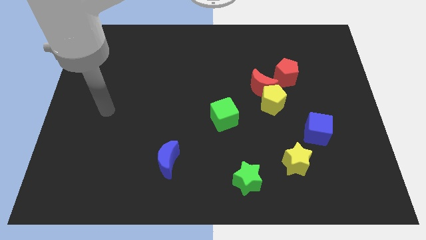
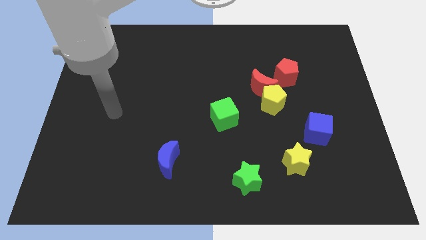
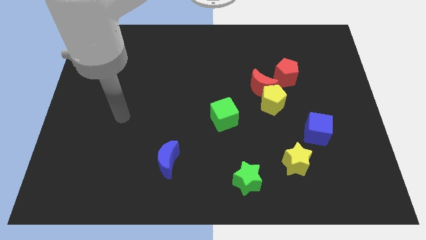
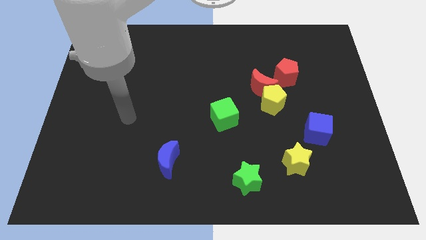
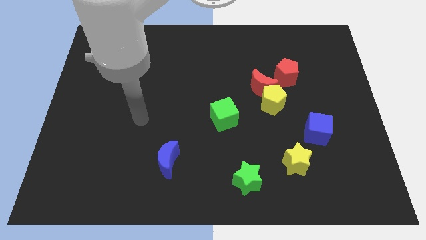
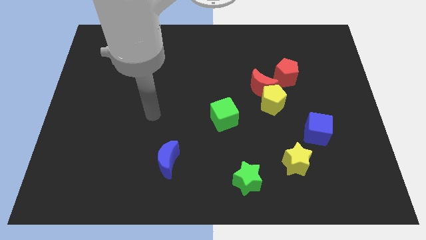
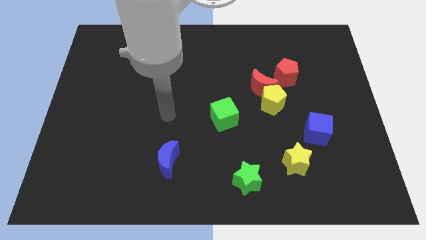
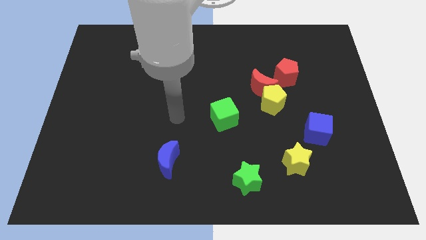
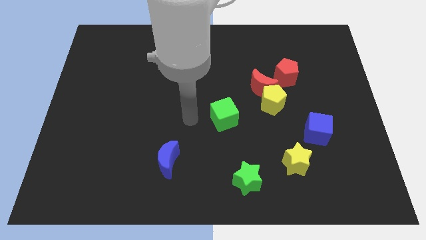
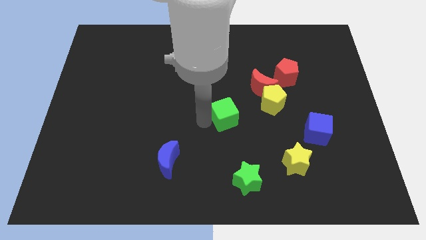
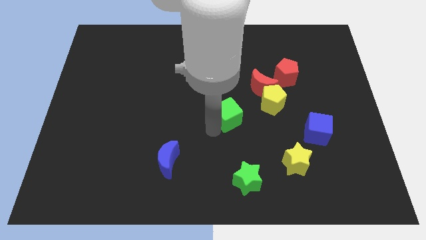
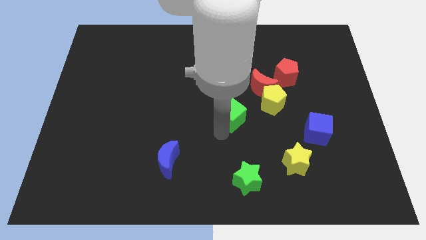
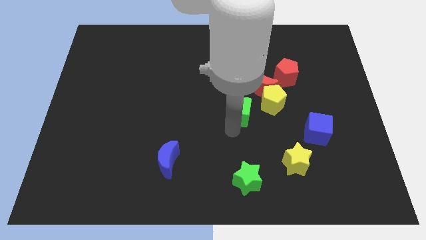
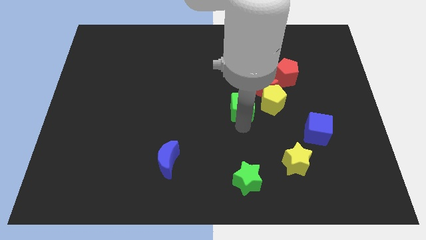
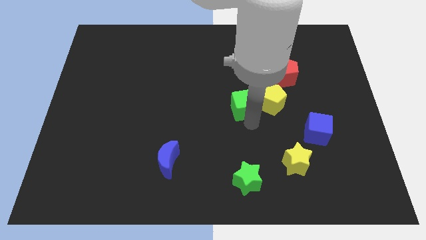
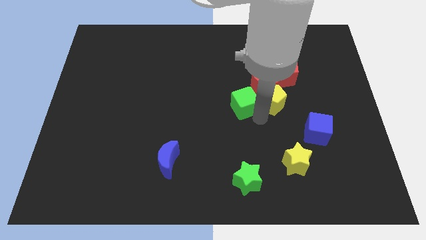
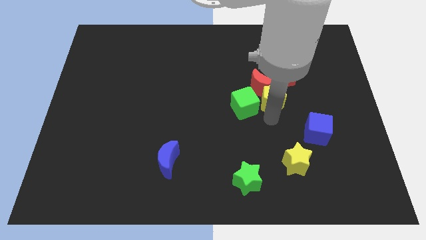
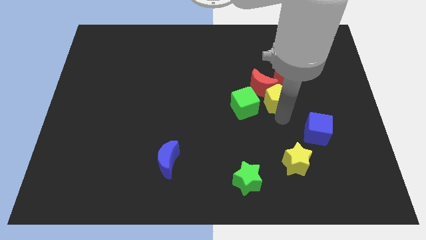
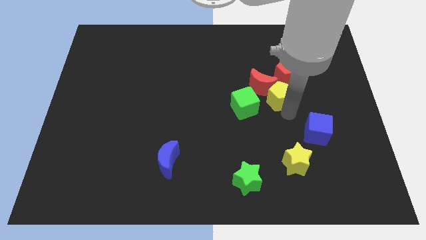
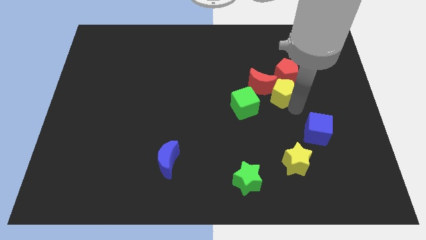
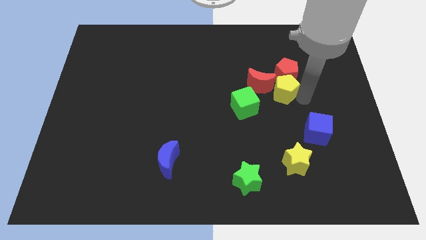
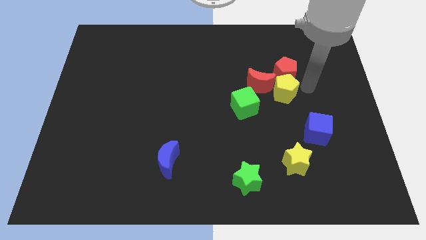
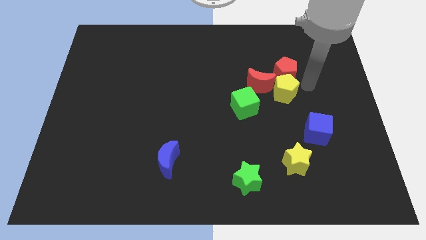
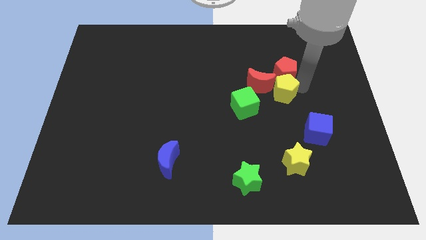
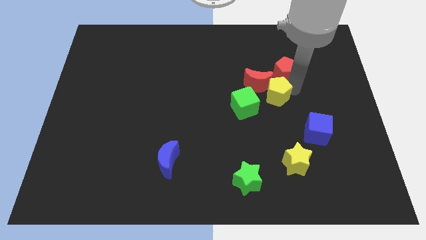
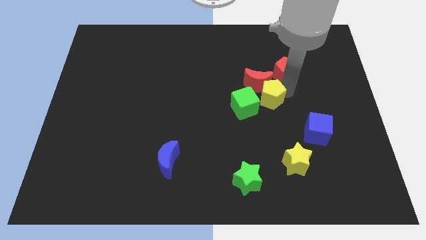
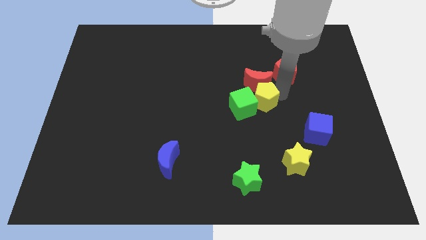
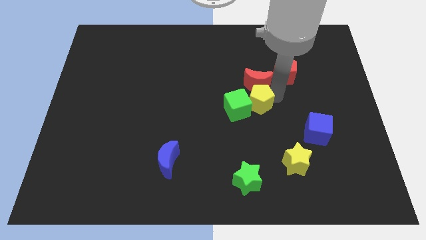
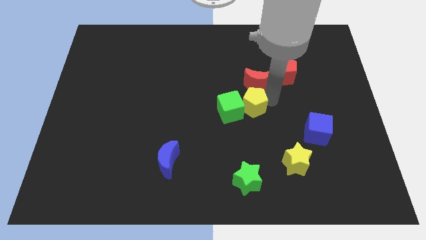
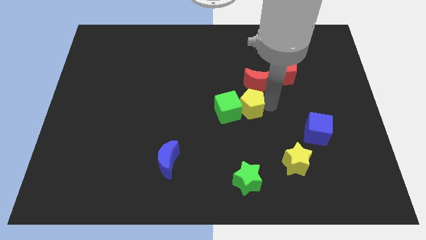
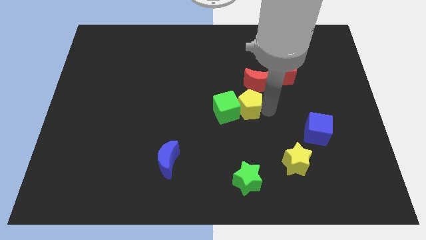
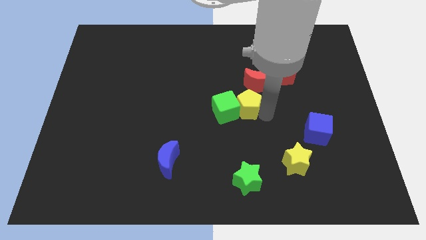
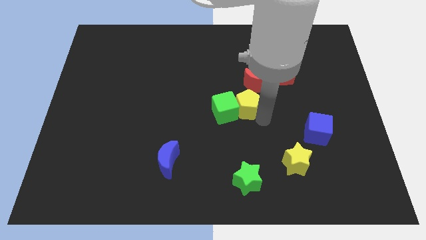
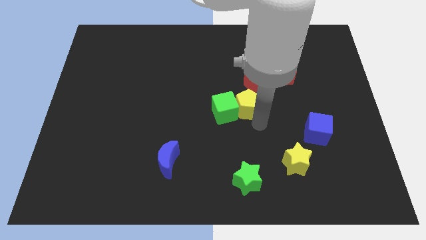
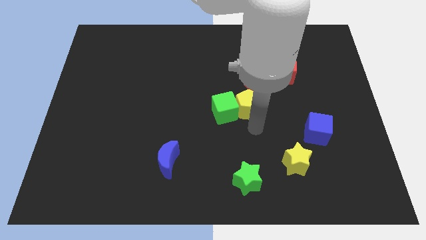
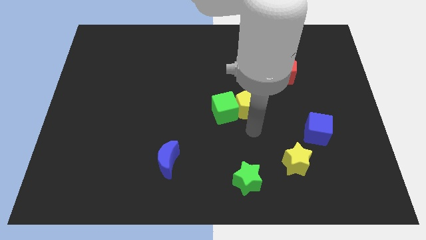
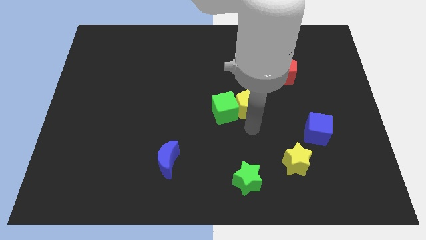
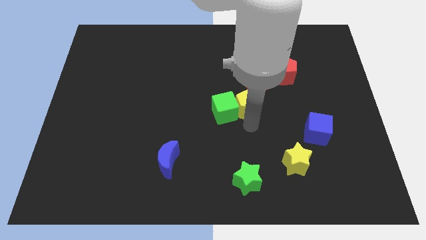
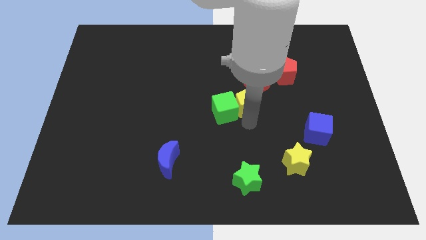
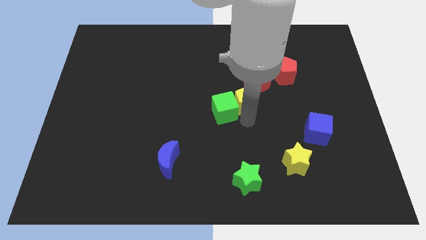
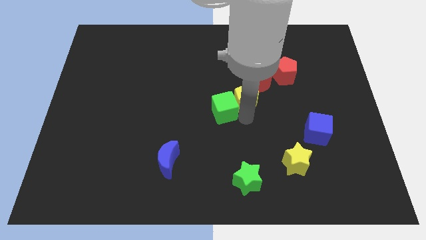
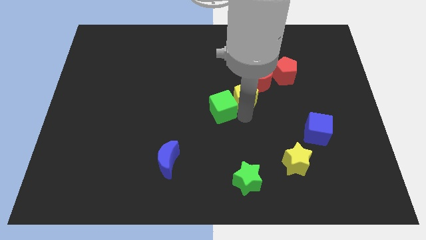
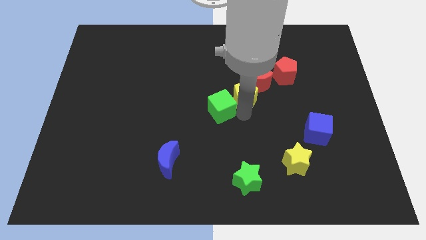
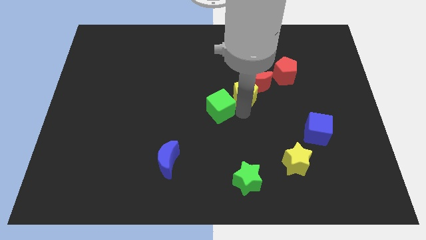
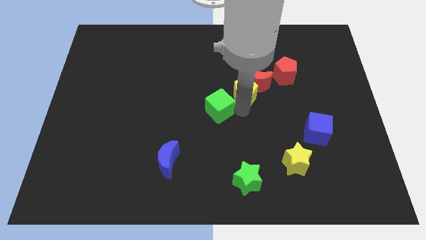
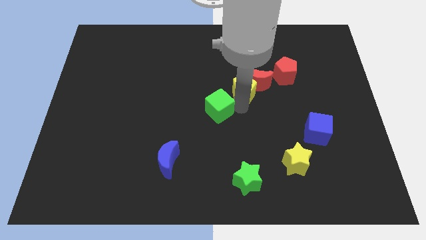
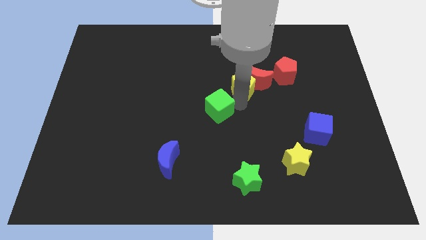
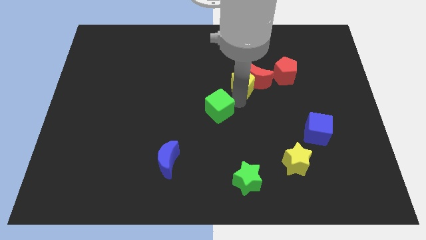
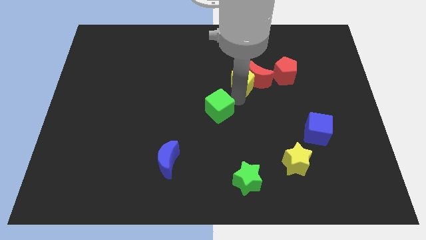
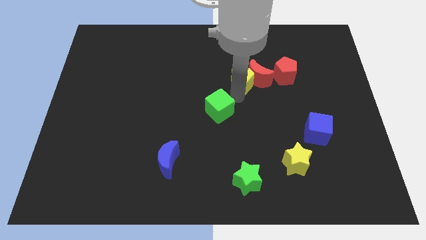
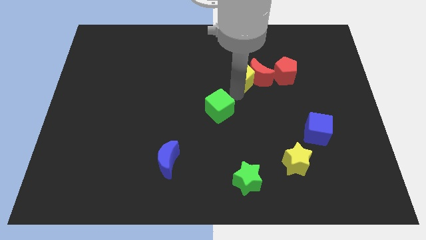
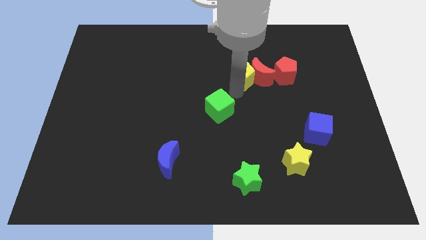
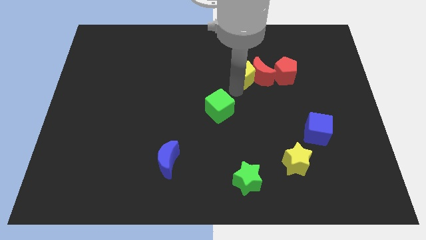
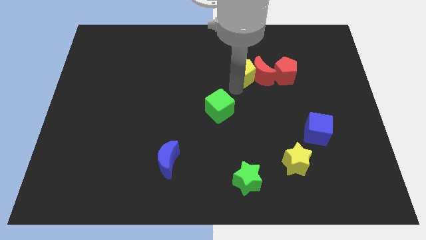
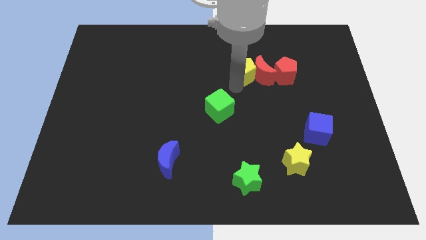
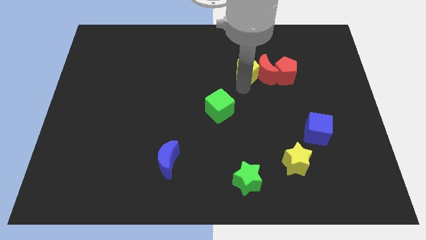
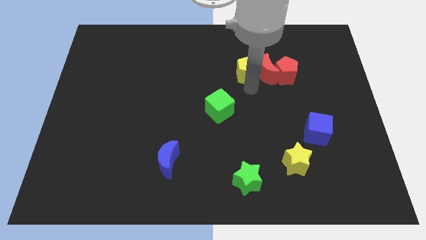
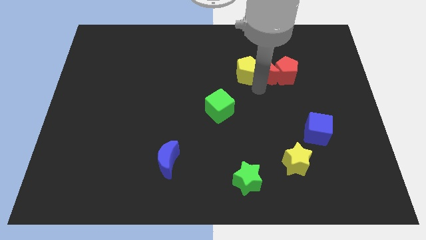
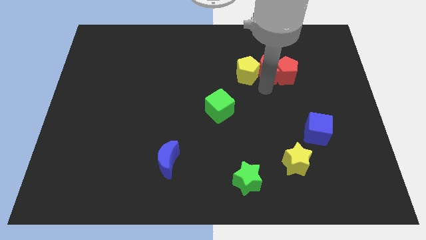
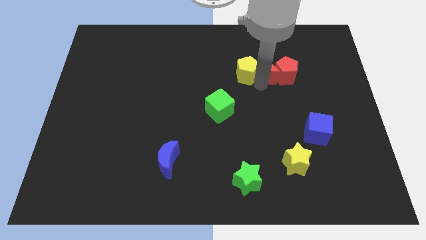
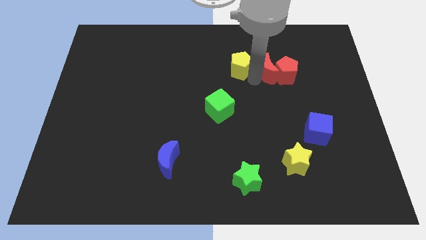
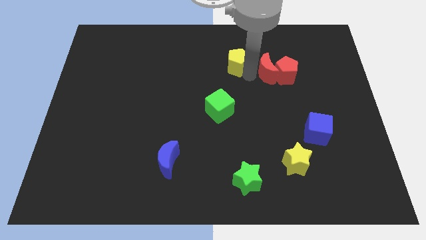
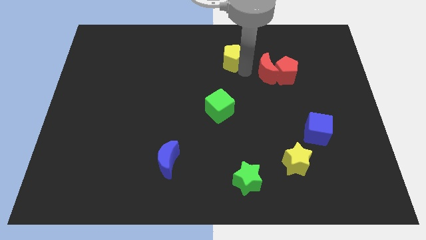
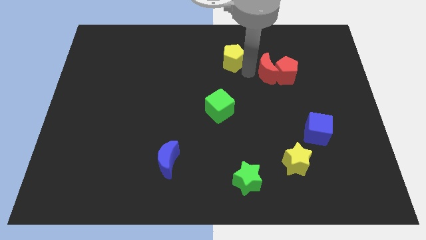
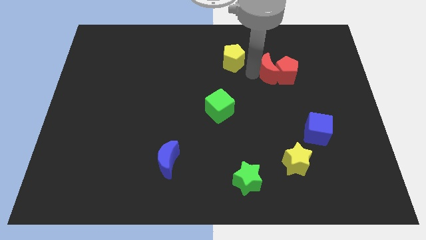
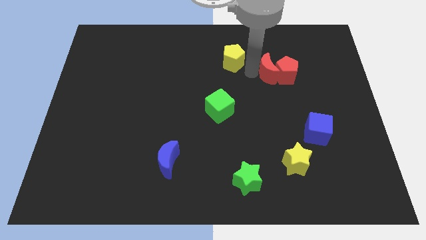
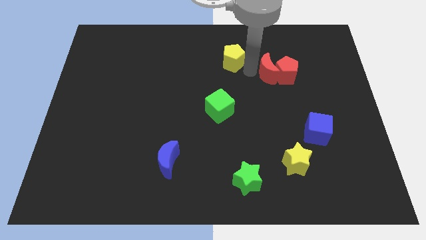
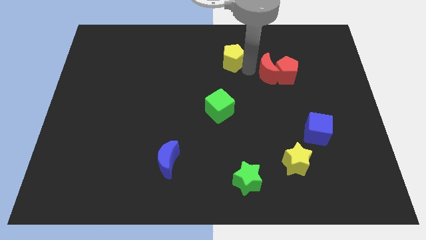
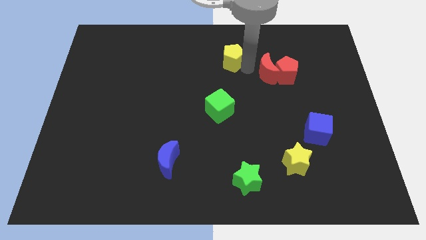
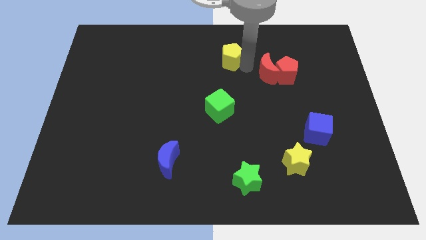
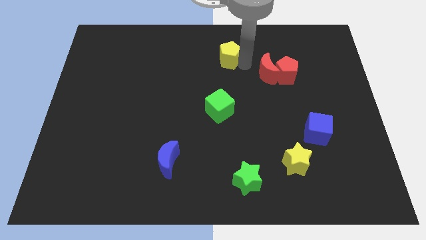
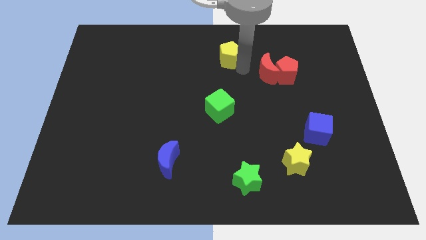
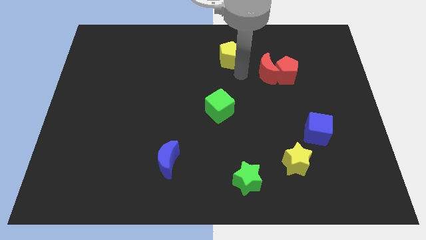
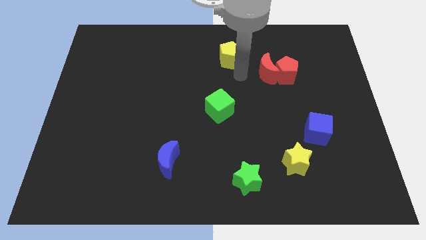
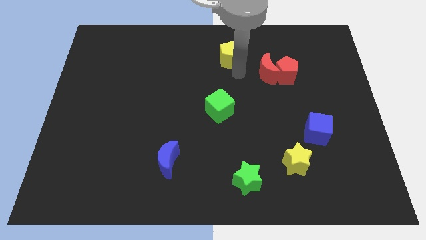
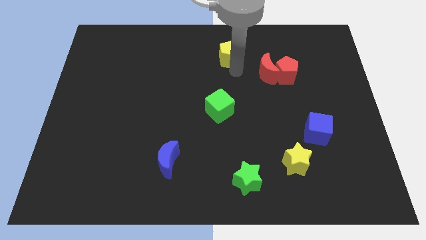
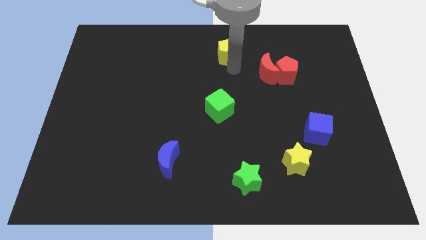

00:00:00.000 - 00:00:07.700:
put the yellow pentagon to the towards your base
